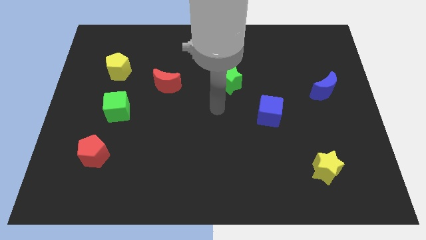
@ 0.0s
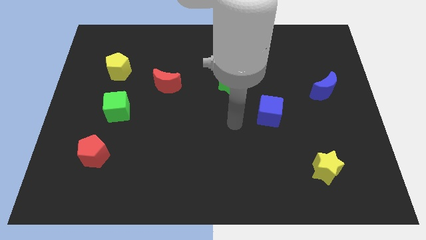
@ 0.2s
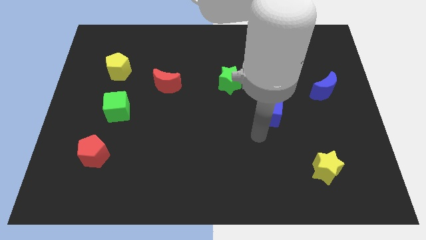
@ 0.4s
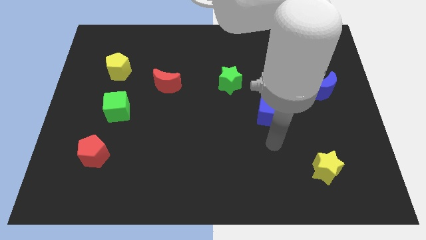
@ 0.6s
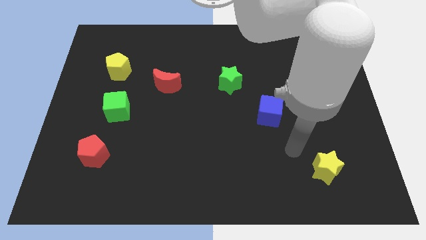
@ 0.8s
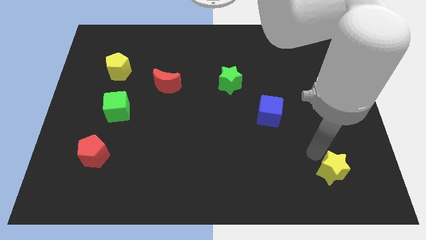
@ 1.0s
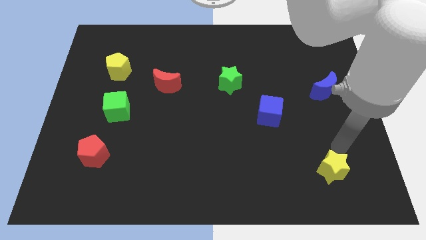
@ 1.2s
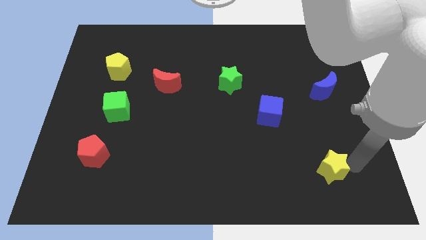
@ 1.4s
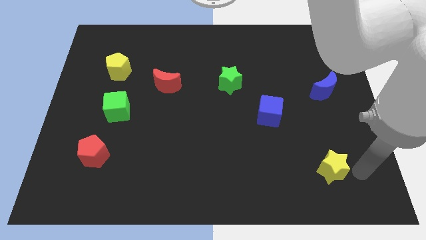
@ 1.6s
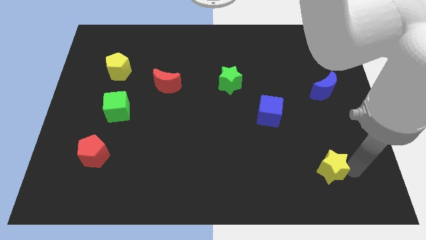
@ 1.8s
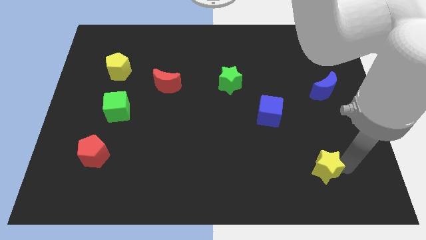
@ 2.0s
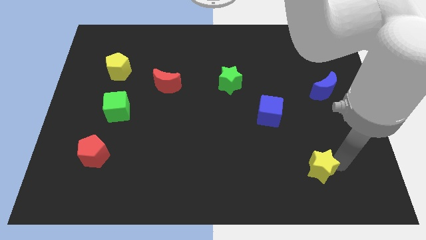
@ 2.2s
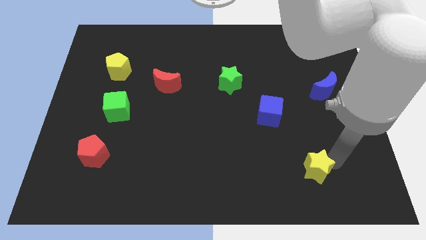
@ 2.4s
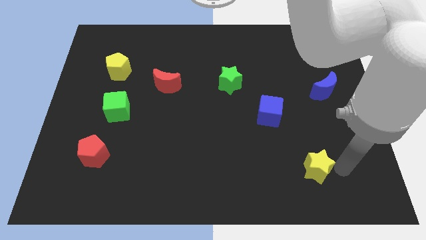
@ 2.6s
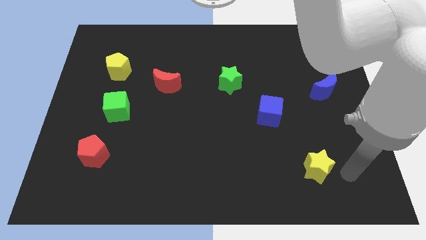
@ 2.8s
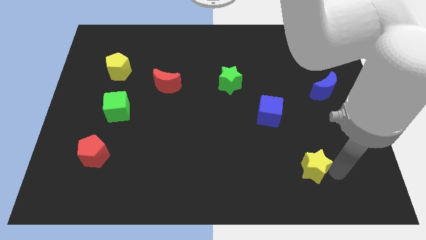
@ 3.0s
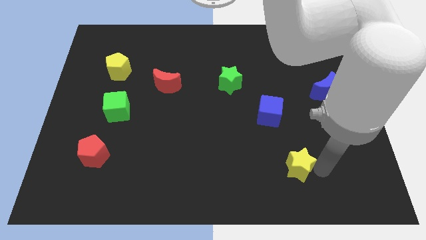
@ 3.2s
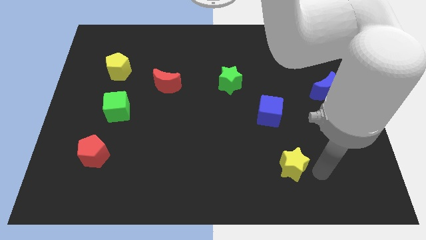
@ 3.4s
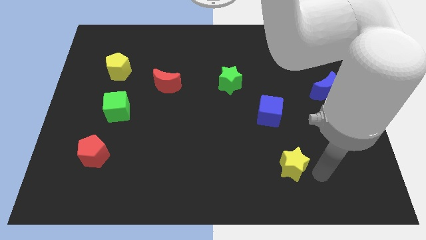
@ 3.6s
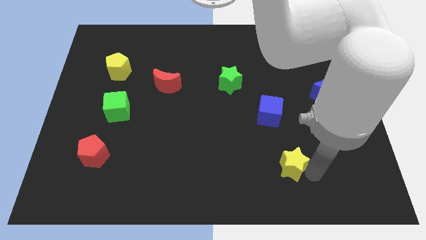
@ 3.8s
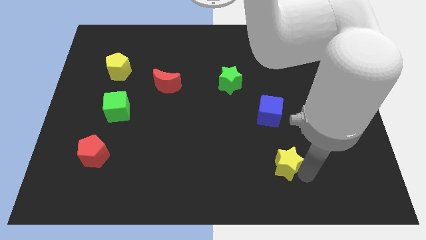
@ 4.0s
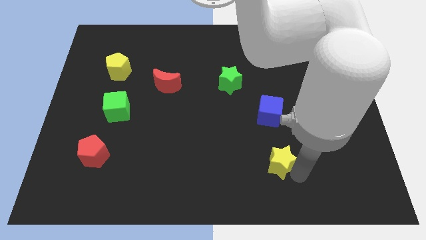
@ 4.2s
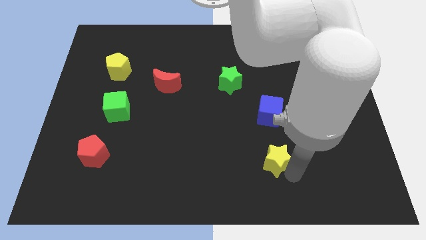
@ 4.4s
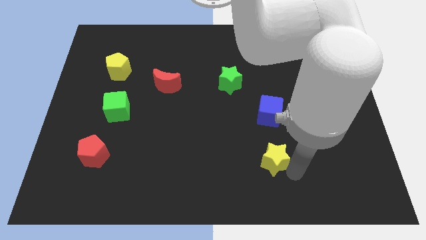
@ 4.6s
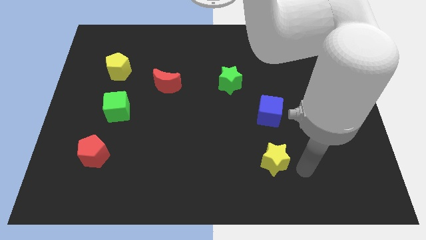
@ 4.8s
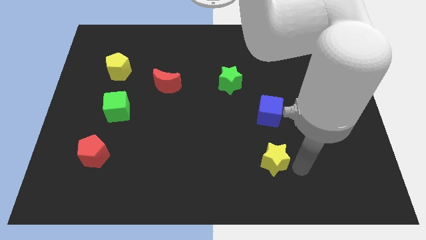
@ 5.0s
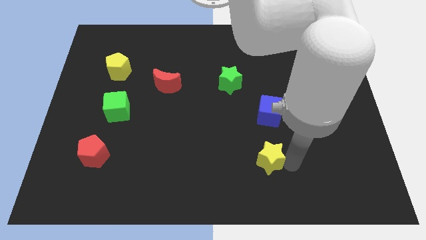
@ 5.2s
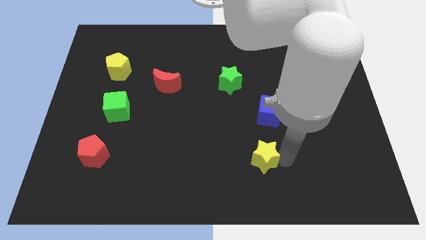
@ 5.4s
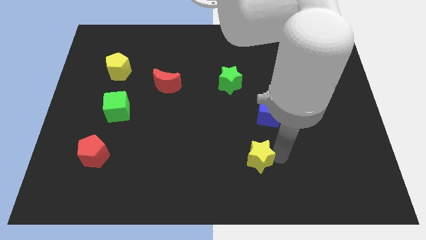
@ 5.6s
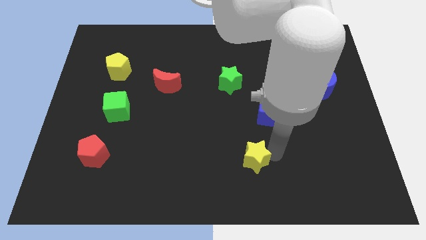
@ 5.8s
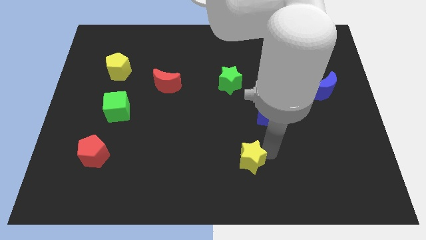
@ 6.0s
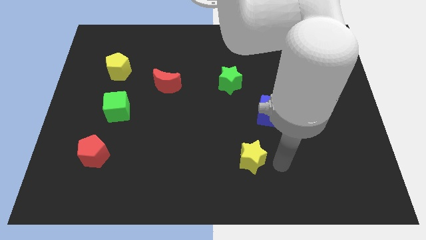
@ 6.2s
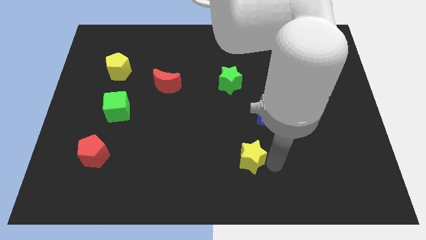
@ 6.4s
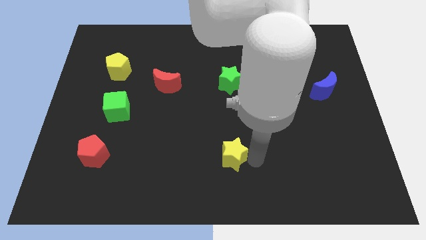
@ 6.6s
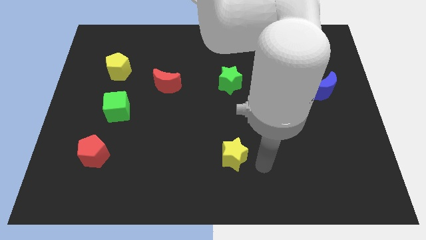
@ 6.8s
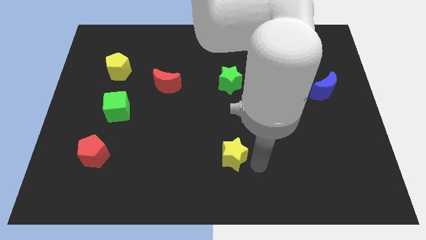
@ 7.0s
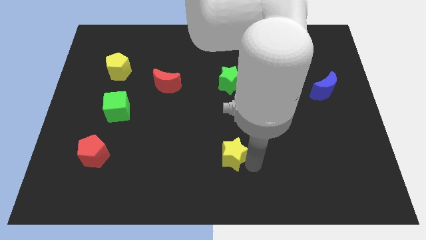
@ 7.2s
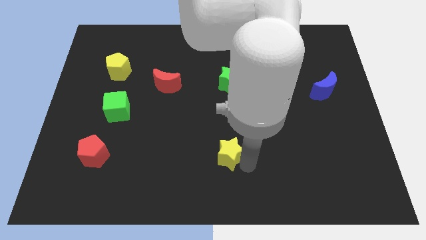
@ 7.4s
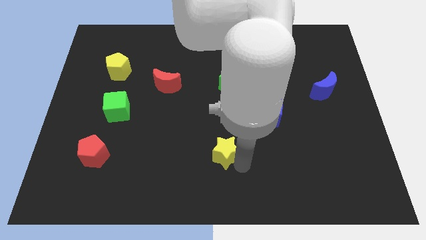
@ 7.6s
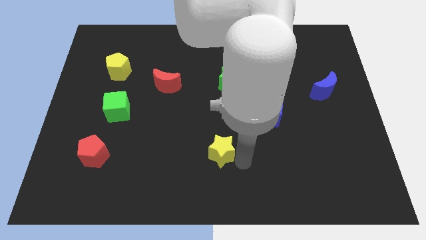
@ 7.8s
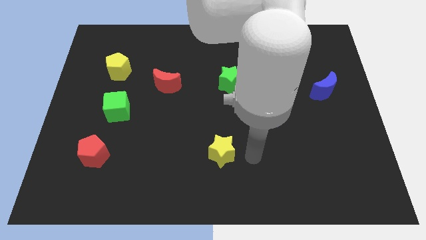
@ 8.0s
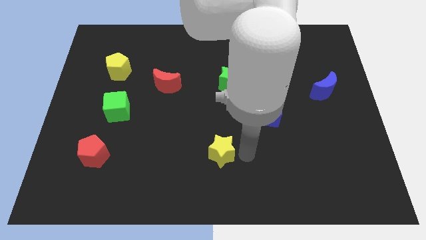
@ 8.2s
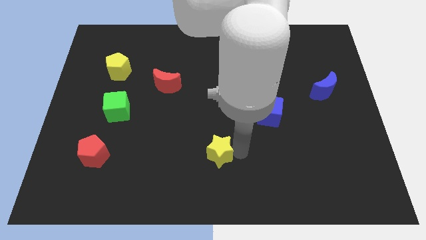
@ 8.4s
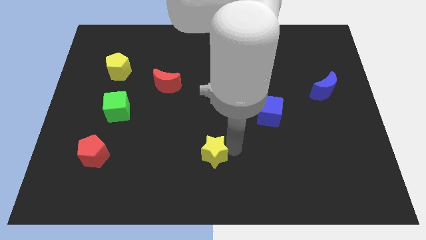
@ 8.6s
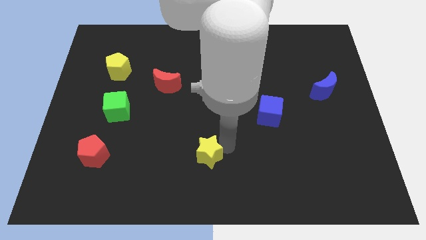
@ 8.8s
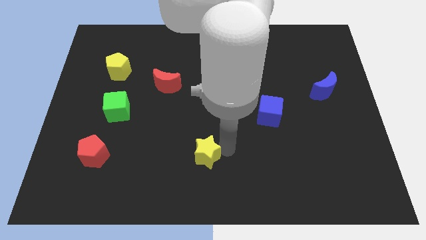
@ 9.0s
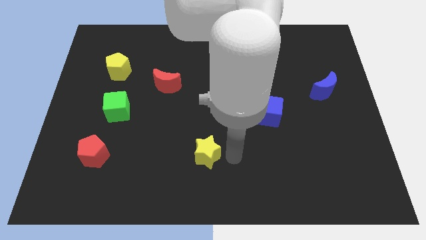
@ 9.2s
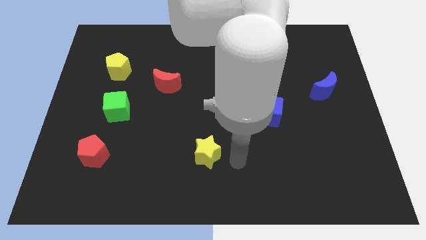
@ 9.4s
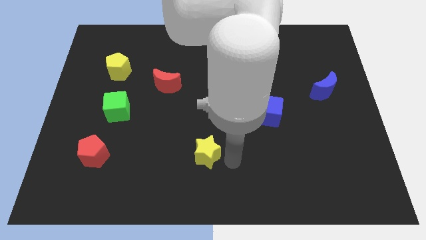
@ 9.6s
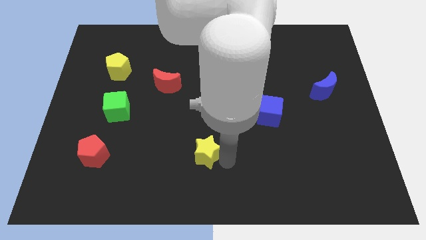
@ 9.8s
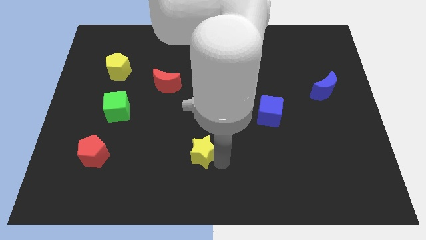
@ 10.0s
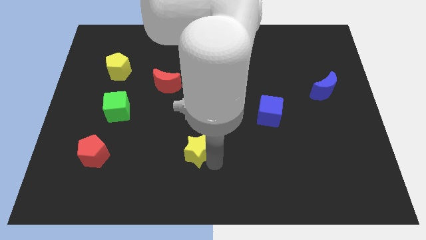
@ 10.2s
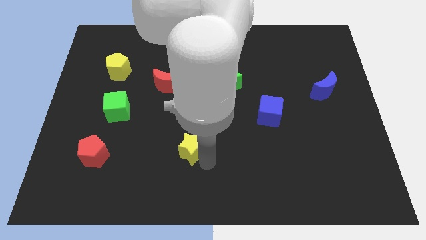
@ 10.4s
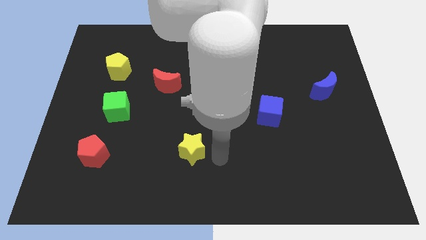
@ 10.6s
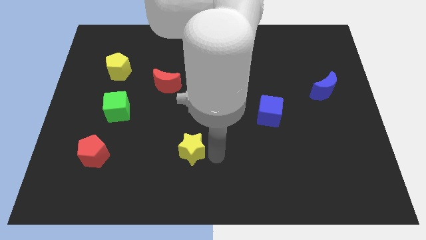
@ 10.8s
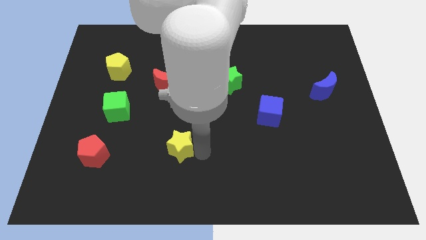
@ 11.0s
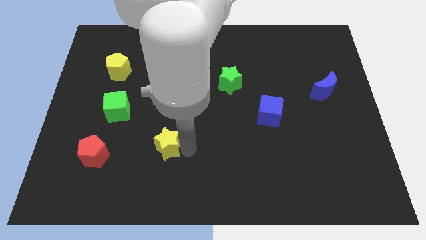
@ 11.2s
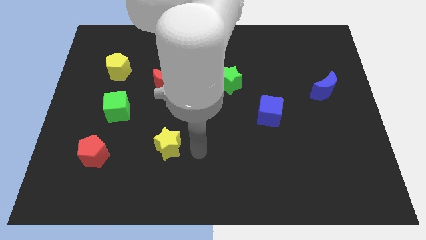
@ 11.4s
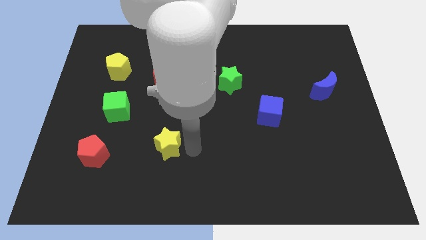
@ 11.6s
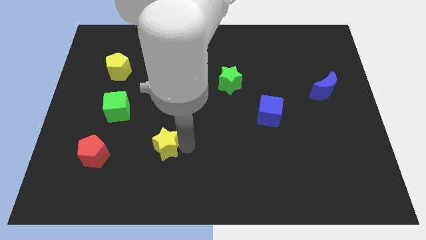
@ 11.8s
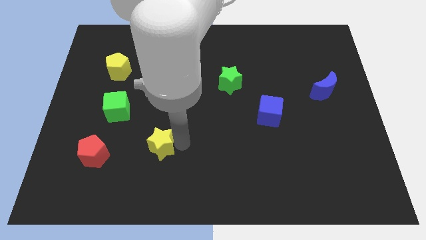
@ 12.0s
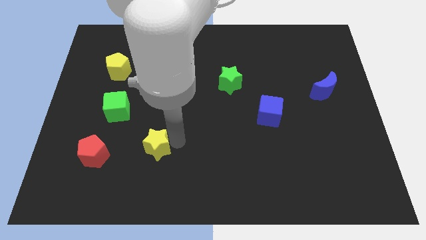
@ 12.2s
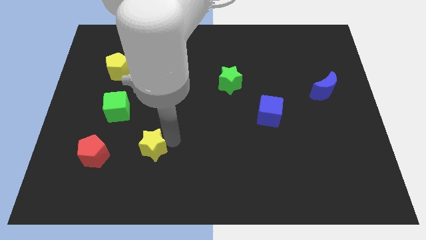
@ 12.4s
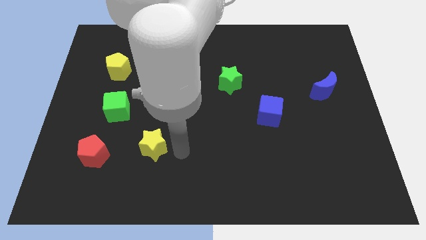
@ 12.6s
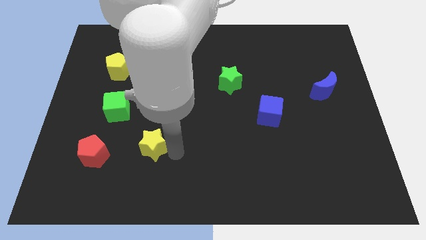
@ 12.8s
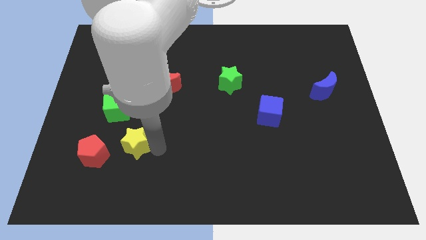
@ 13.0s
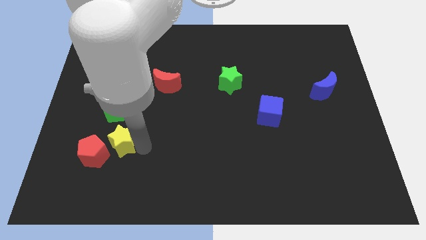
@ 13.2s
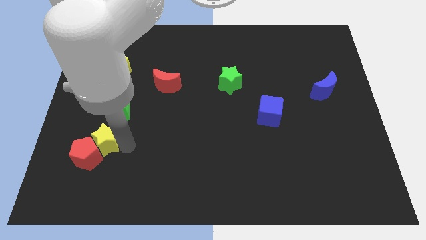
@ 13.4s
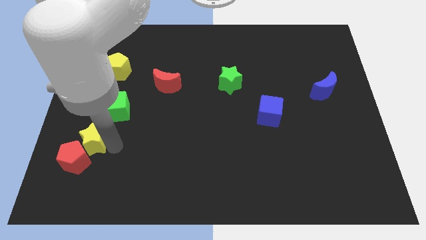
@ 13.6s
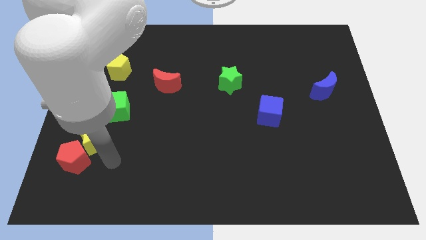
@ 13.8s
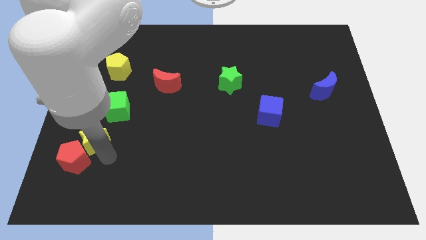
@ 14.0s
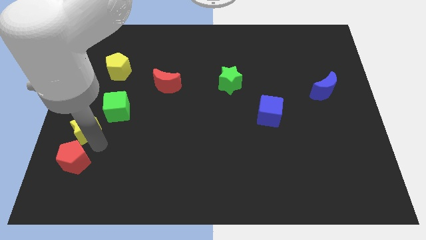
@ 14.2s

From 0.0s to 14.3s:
push the yellow star to the left side of the board
